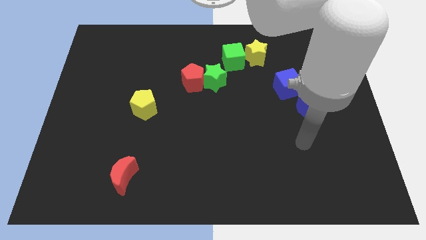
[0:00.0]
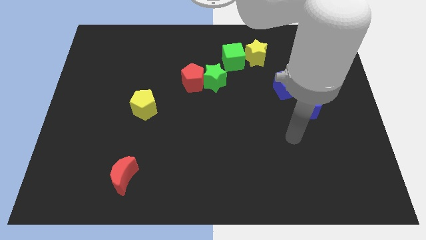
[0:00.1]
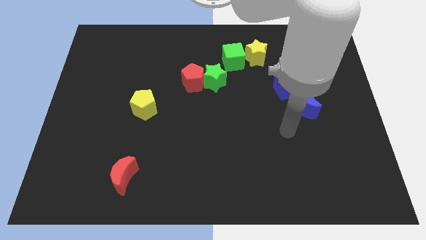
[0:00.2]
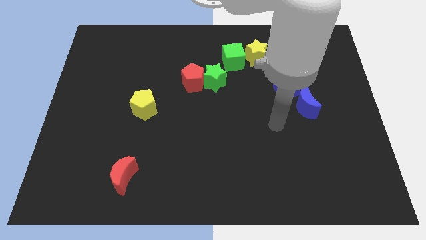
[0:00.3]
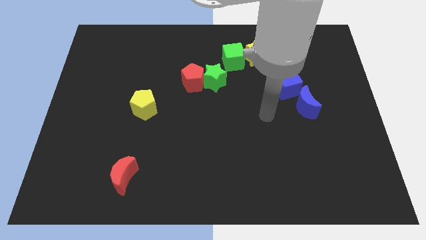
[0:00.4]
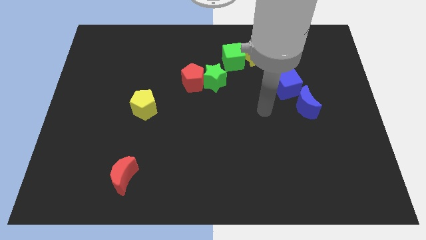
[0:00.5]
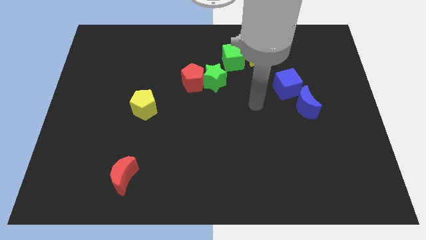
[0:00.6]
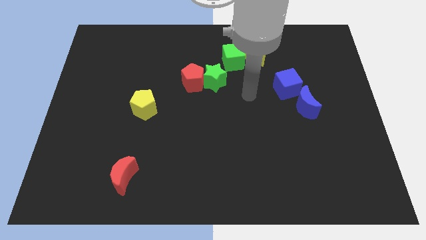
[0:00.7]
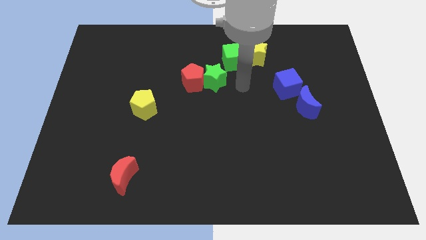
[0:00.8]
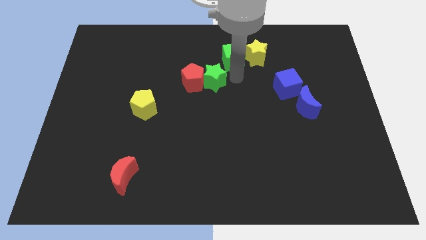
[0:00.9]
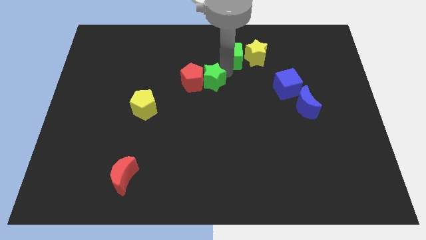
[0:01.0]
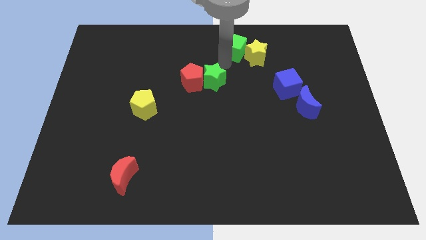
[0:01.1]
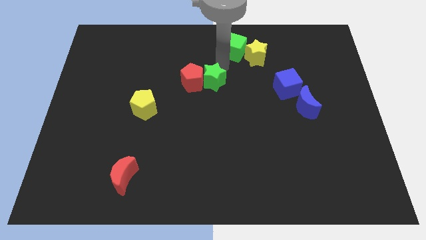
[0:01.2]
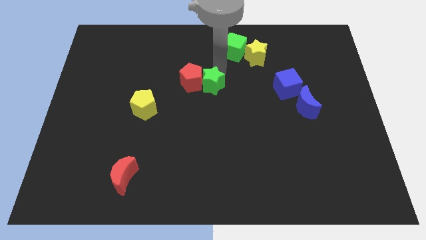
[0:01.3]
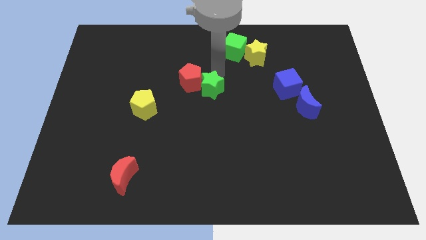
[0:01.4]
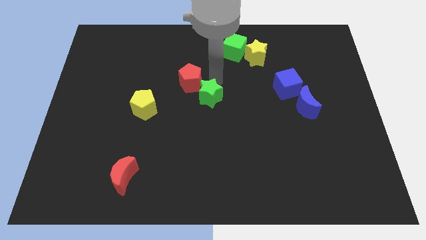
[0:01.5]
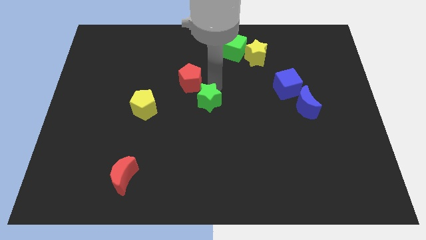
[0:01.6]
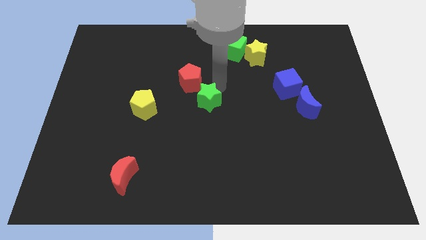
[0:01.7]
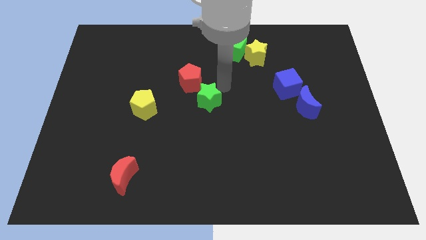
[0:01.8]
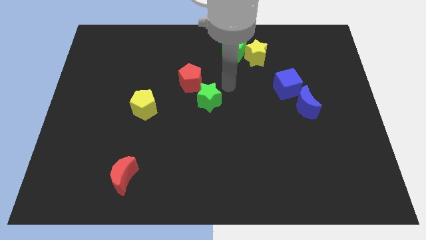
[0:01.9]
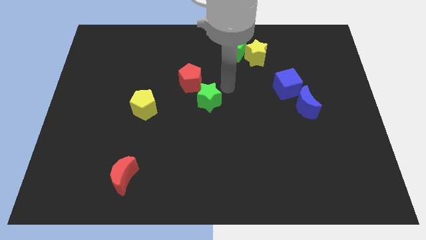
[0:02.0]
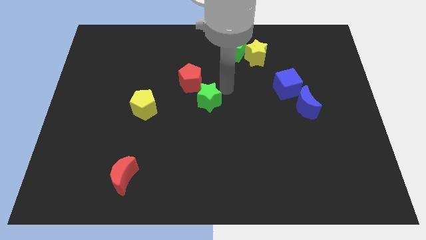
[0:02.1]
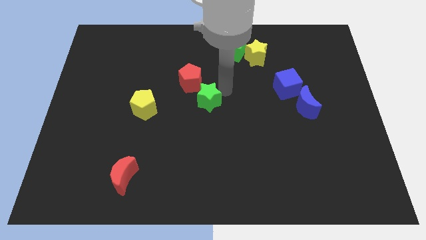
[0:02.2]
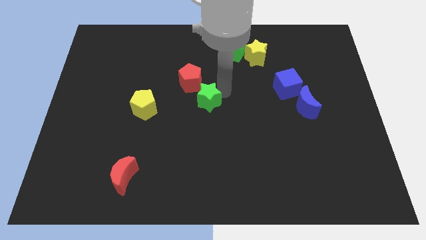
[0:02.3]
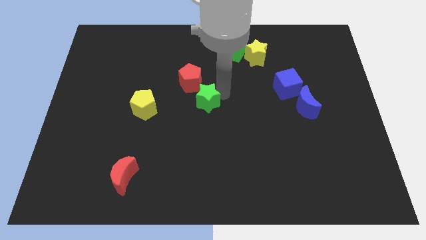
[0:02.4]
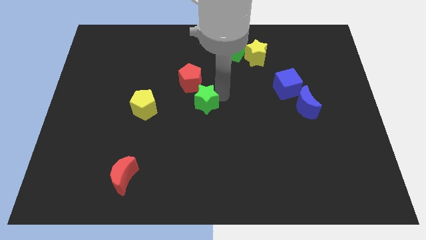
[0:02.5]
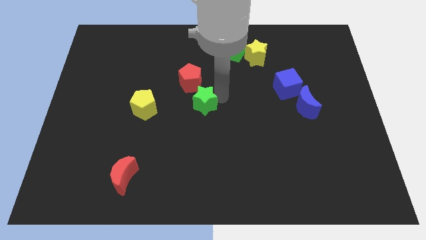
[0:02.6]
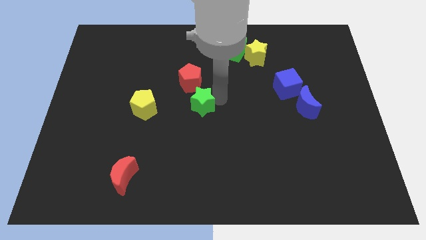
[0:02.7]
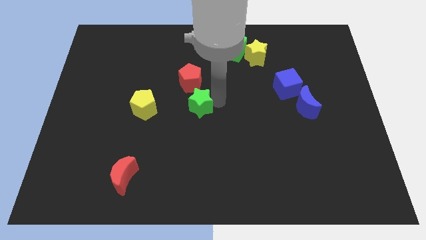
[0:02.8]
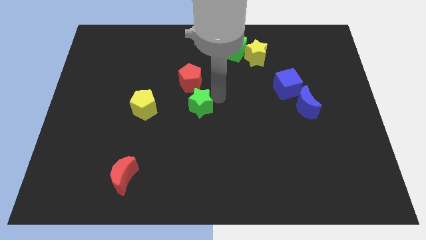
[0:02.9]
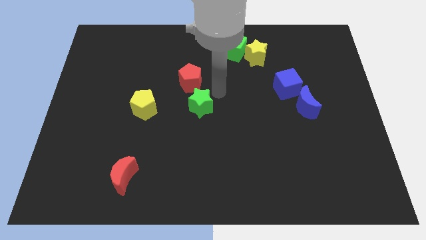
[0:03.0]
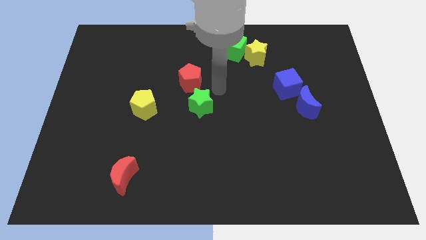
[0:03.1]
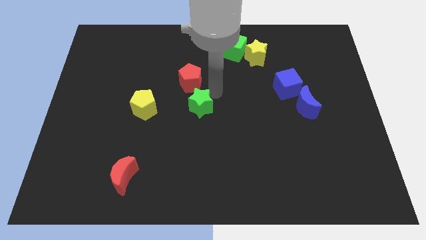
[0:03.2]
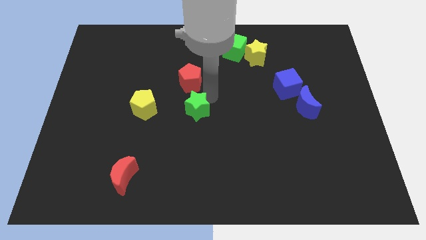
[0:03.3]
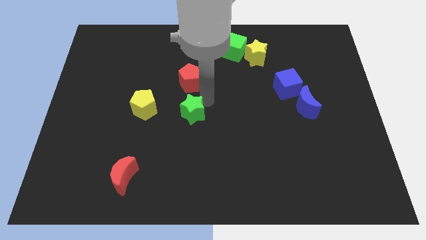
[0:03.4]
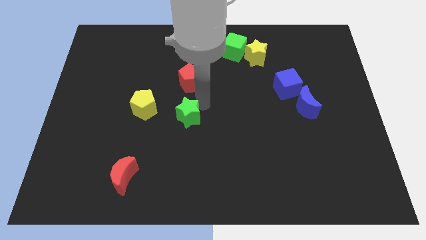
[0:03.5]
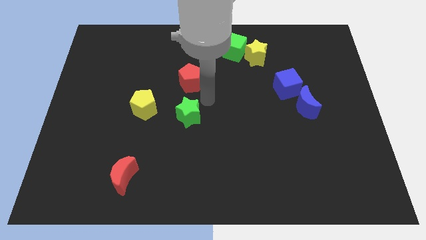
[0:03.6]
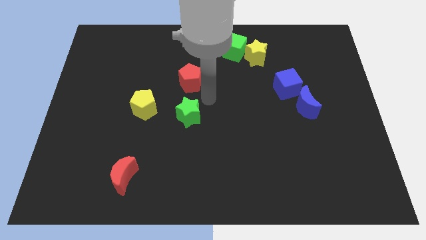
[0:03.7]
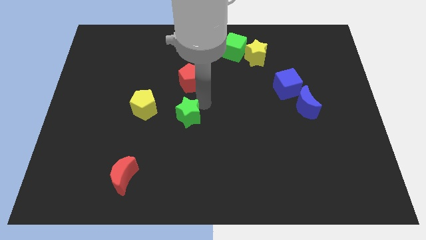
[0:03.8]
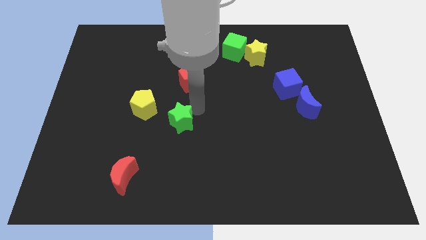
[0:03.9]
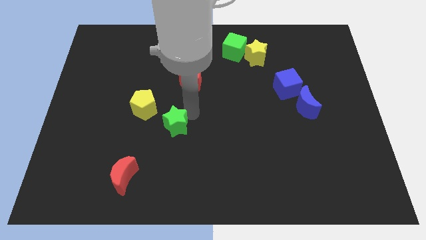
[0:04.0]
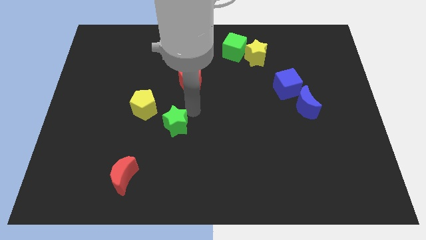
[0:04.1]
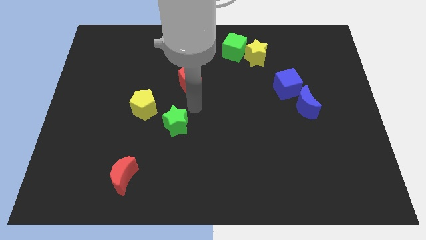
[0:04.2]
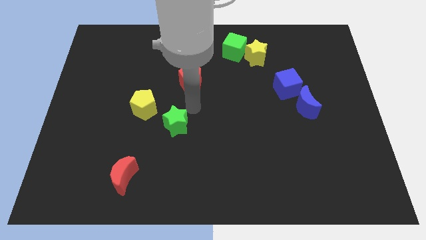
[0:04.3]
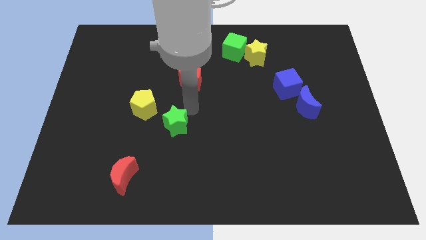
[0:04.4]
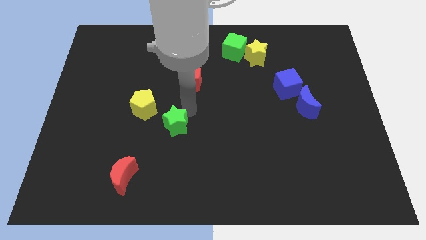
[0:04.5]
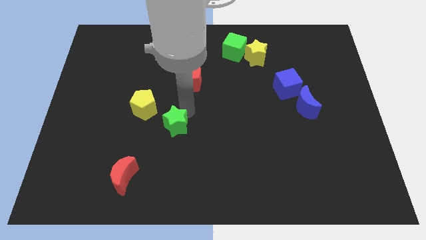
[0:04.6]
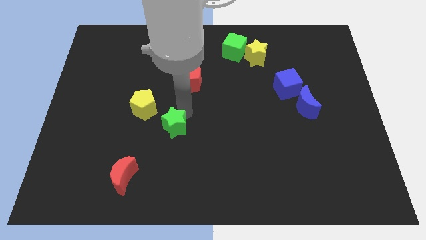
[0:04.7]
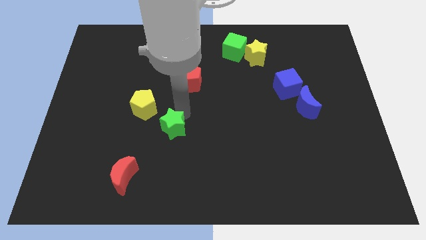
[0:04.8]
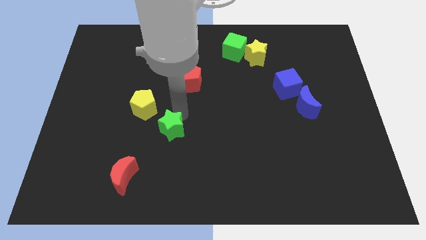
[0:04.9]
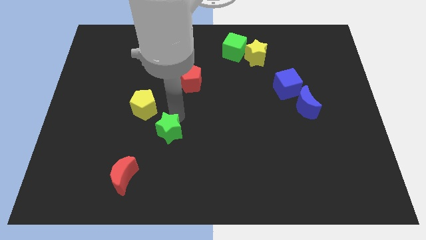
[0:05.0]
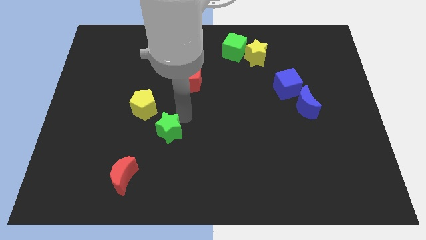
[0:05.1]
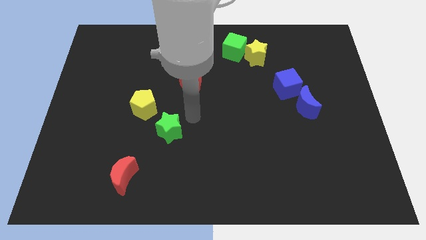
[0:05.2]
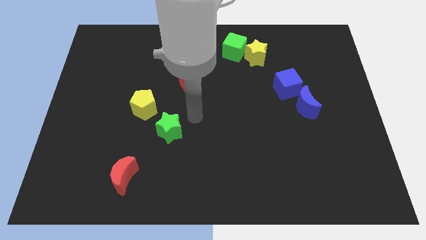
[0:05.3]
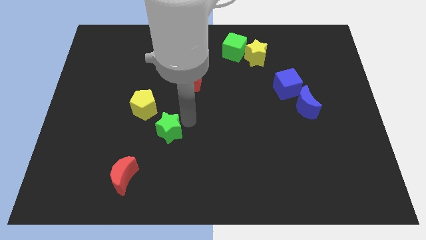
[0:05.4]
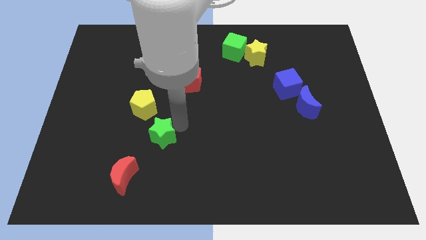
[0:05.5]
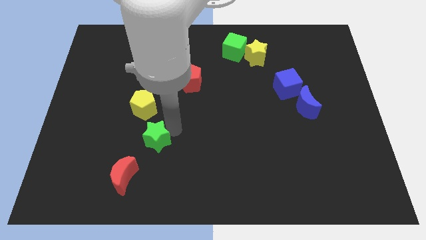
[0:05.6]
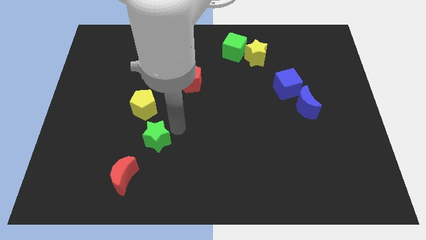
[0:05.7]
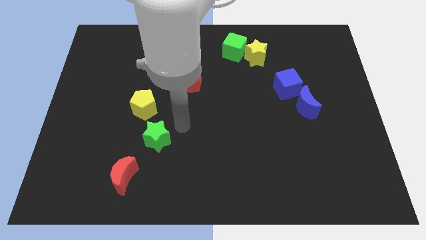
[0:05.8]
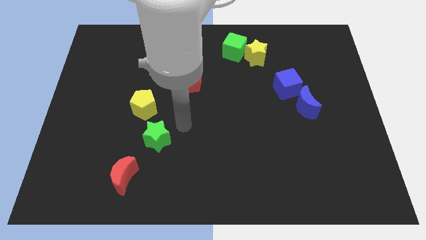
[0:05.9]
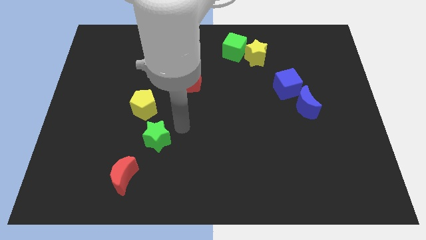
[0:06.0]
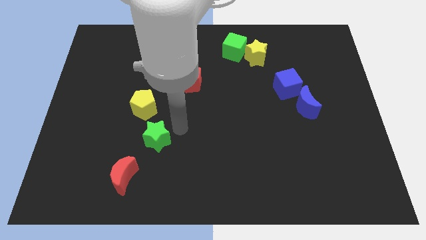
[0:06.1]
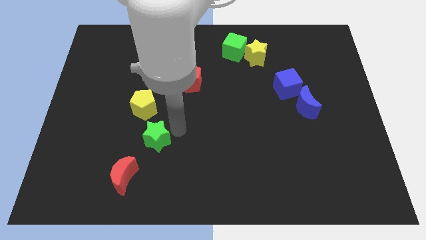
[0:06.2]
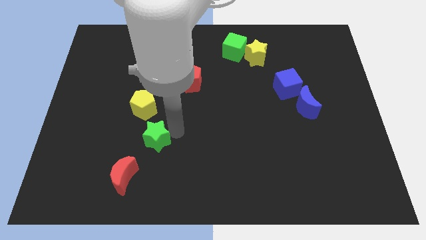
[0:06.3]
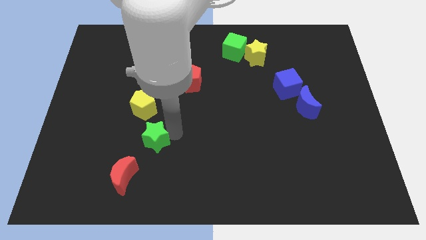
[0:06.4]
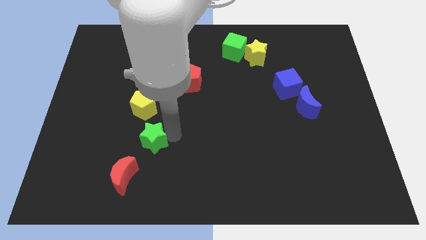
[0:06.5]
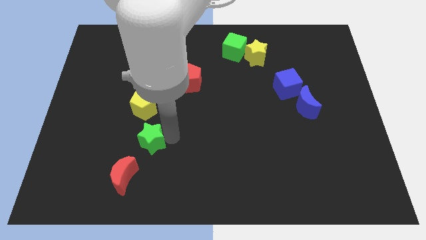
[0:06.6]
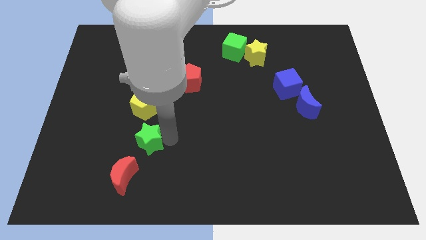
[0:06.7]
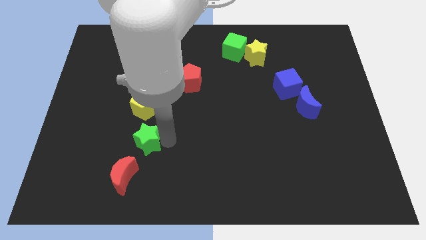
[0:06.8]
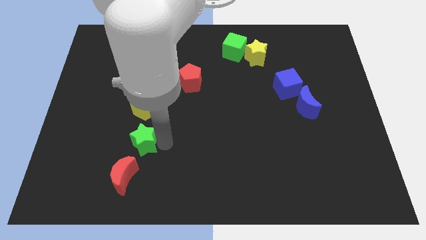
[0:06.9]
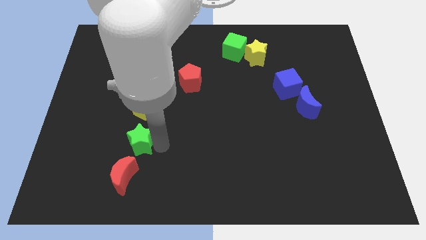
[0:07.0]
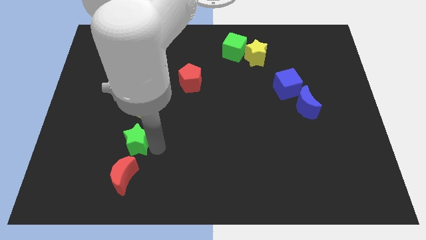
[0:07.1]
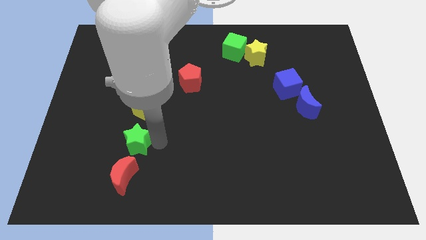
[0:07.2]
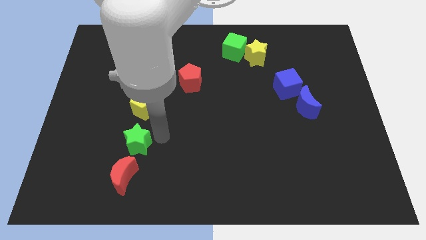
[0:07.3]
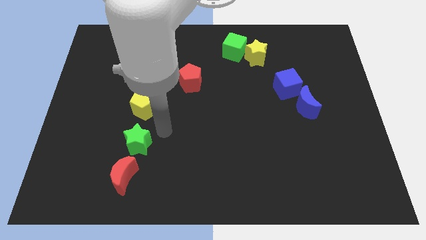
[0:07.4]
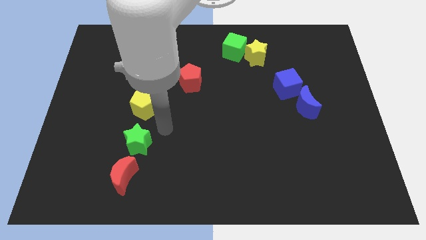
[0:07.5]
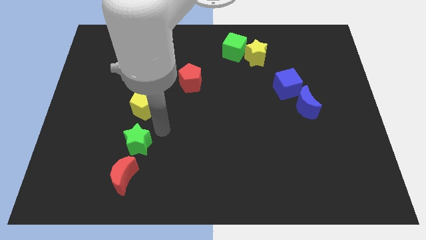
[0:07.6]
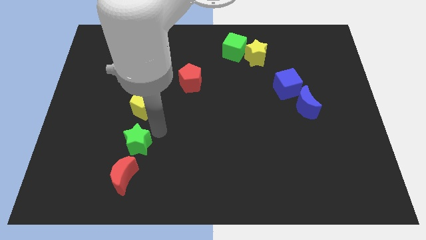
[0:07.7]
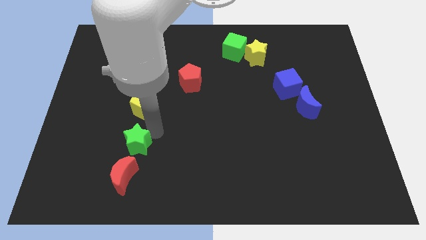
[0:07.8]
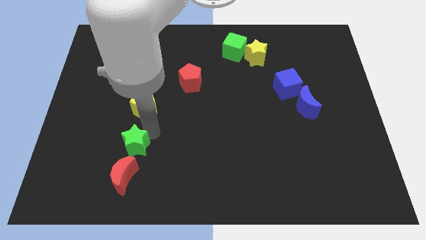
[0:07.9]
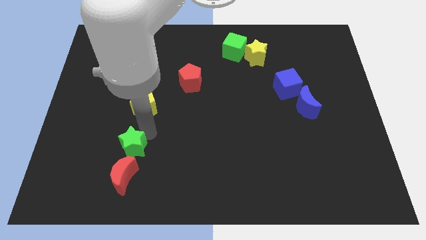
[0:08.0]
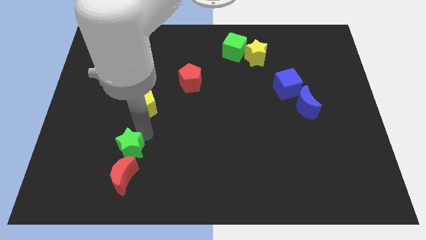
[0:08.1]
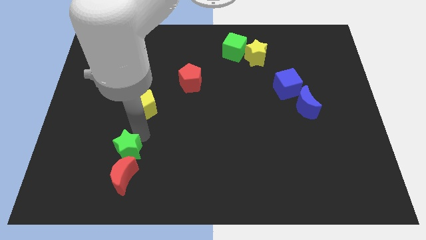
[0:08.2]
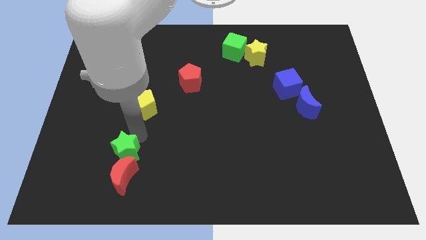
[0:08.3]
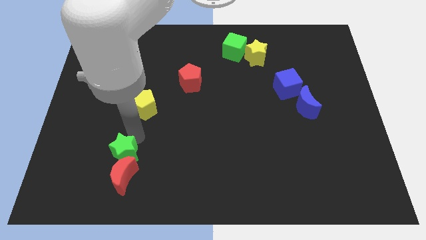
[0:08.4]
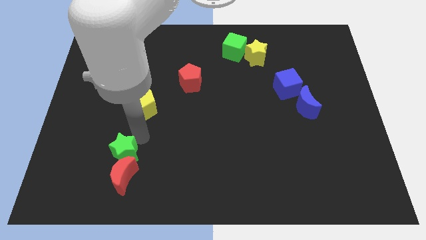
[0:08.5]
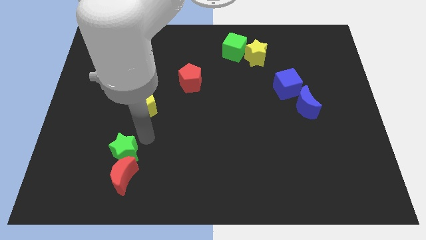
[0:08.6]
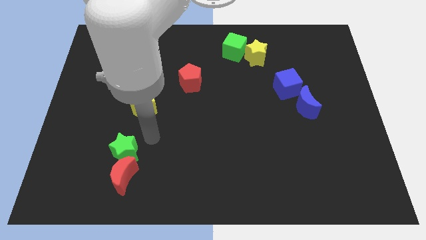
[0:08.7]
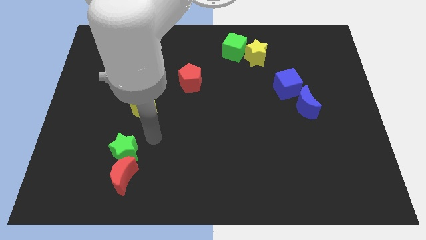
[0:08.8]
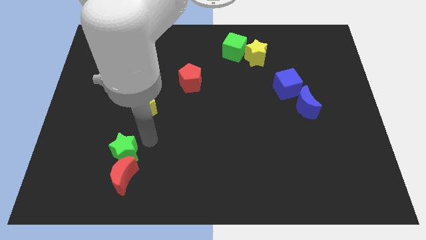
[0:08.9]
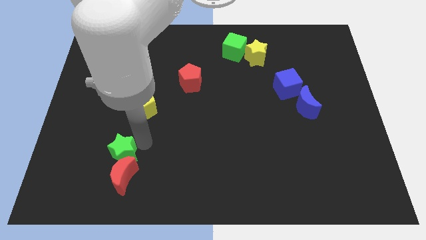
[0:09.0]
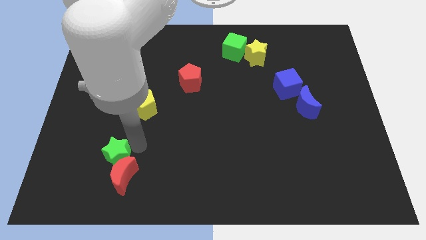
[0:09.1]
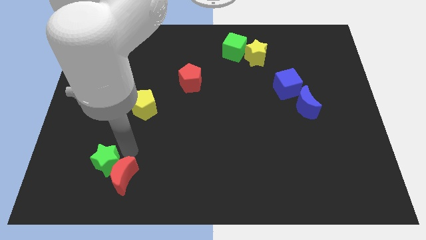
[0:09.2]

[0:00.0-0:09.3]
slide the green star just left of the red moon
